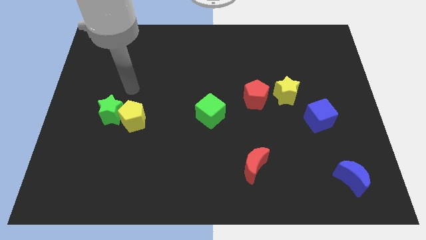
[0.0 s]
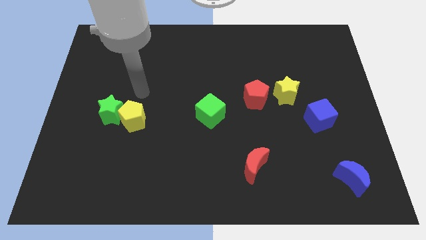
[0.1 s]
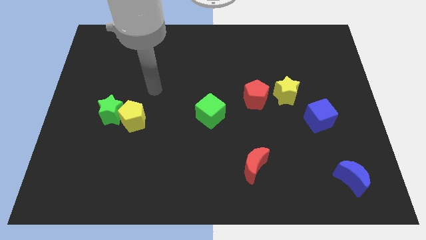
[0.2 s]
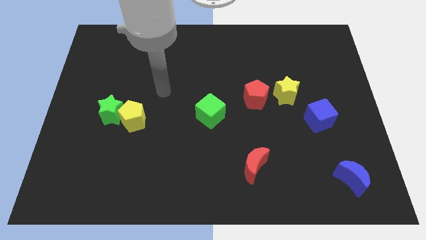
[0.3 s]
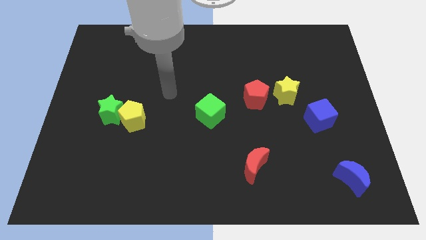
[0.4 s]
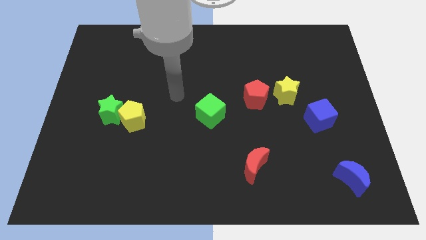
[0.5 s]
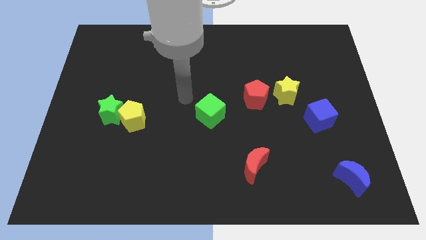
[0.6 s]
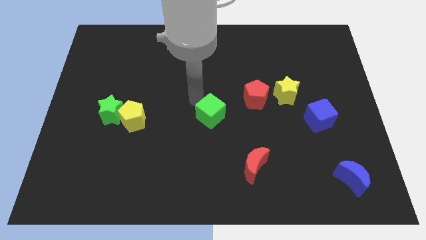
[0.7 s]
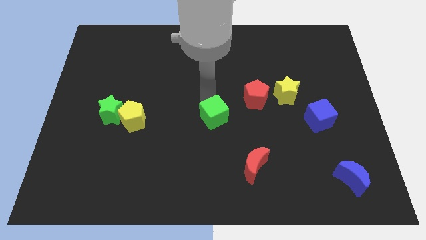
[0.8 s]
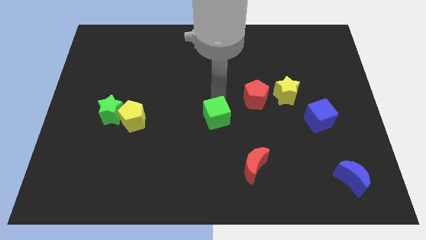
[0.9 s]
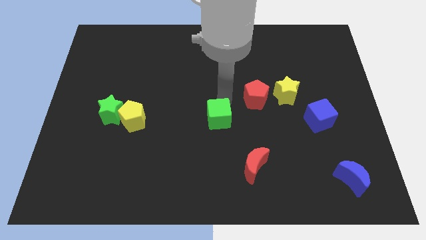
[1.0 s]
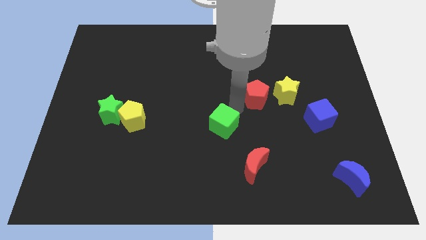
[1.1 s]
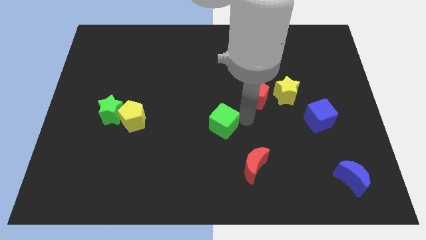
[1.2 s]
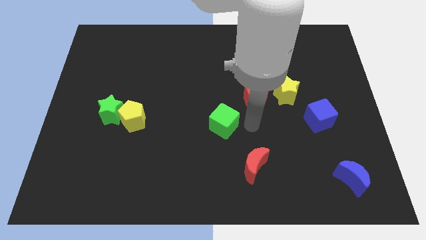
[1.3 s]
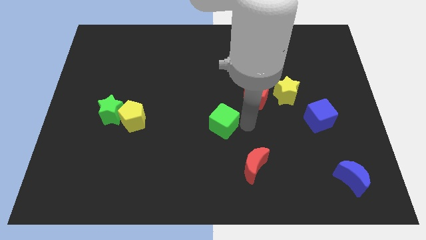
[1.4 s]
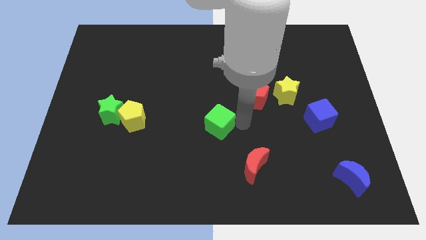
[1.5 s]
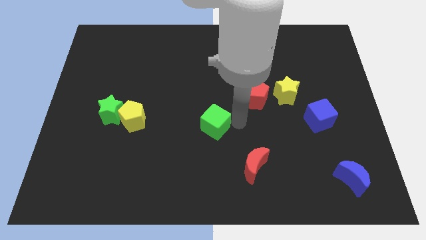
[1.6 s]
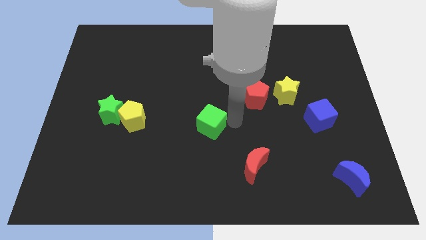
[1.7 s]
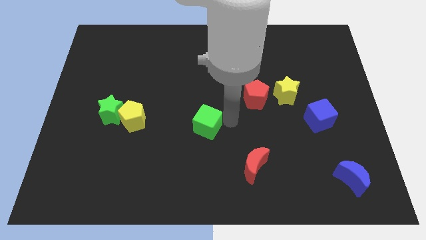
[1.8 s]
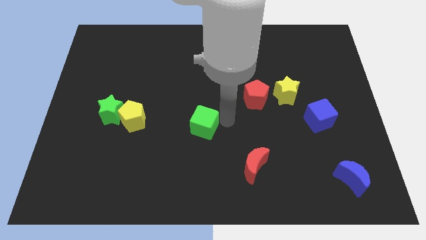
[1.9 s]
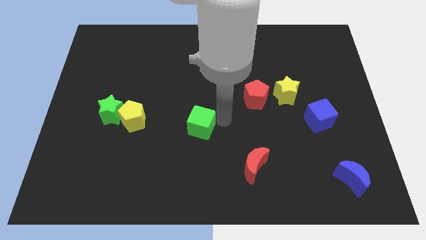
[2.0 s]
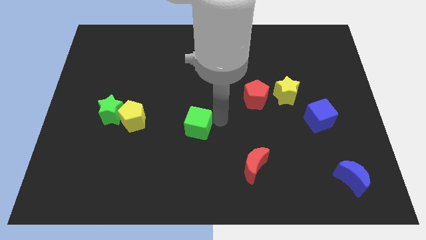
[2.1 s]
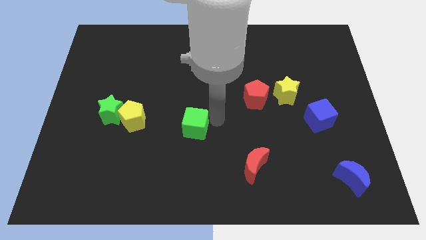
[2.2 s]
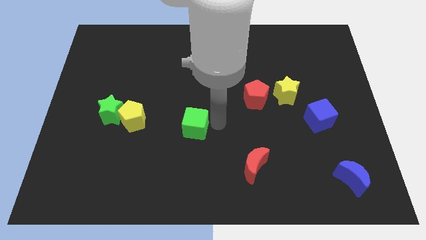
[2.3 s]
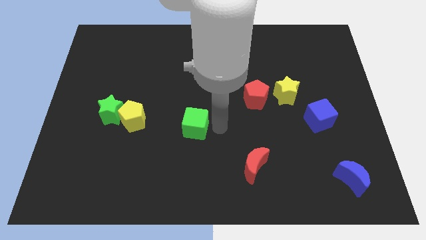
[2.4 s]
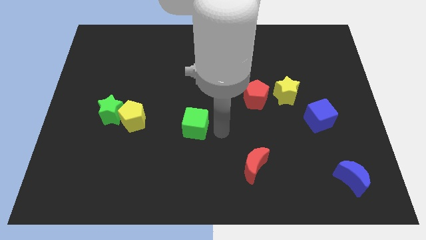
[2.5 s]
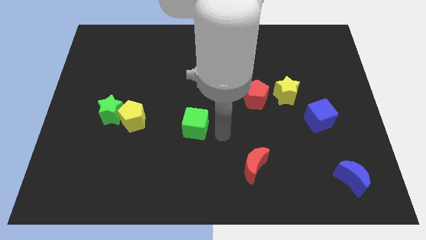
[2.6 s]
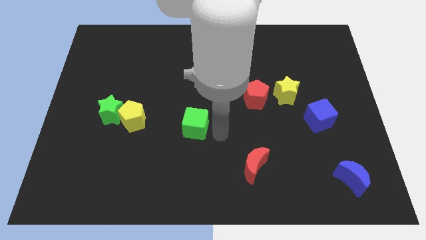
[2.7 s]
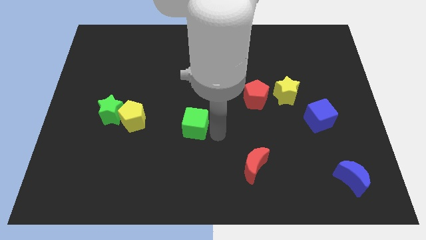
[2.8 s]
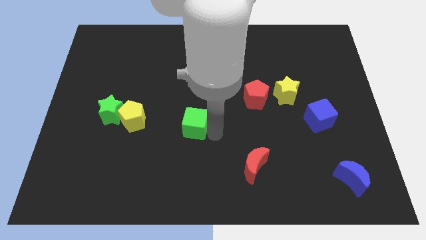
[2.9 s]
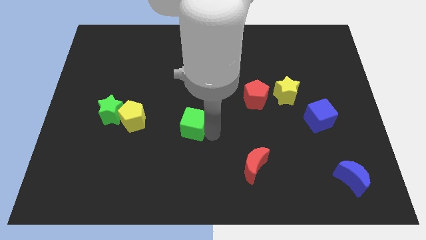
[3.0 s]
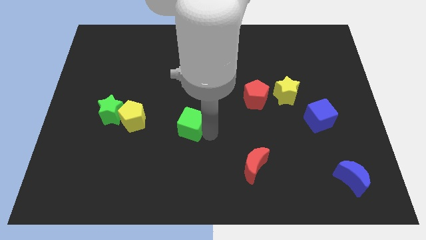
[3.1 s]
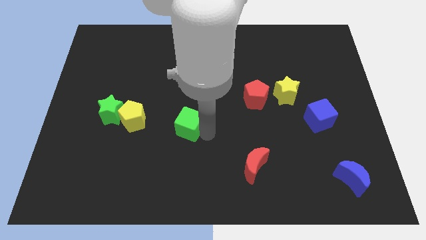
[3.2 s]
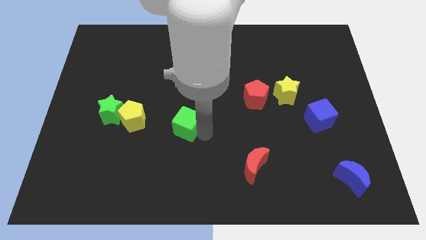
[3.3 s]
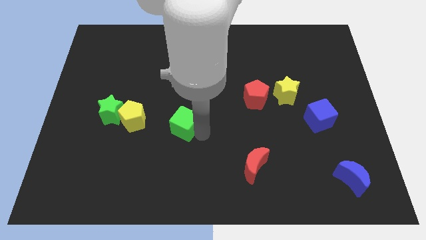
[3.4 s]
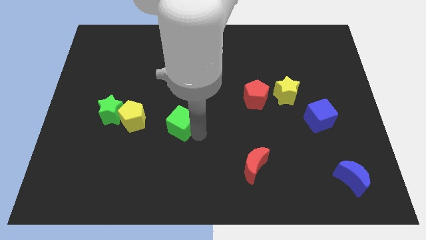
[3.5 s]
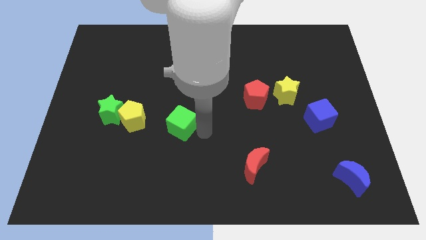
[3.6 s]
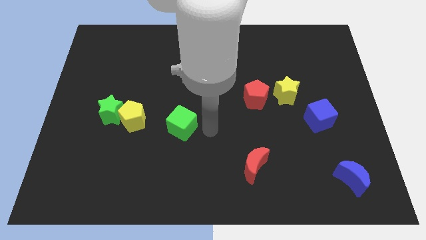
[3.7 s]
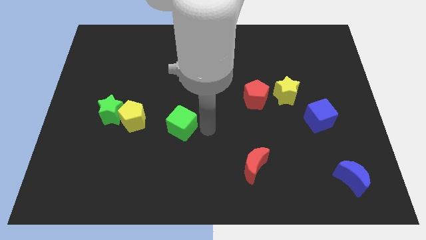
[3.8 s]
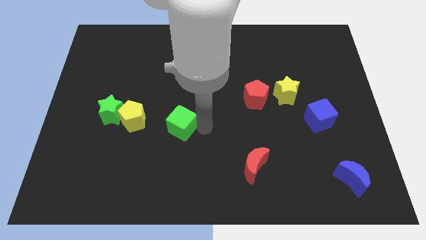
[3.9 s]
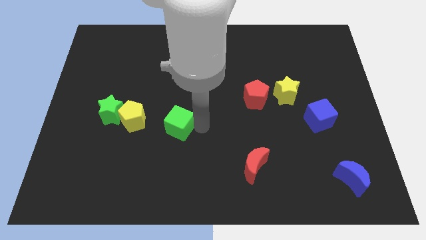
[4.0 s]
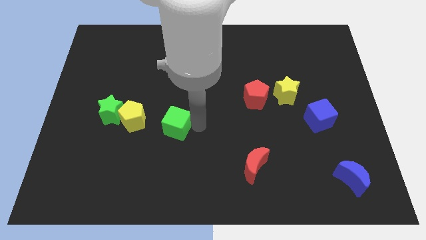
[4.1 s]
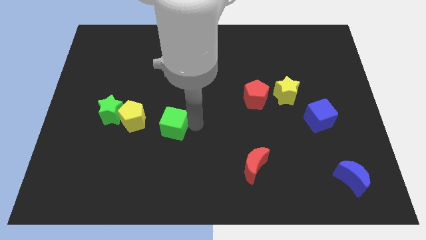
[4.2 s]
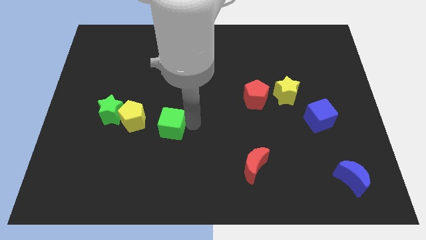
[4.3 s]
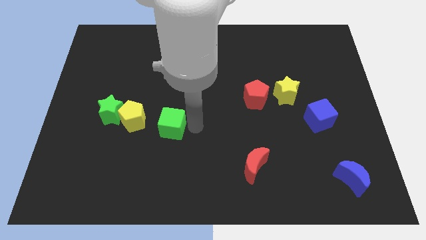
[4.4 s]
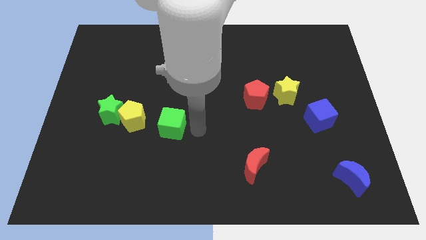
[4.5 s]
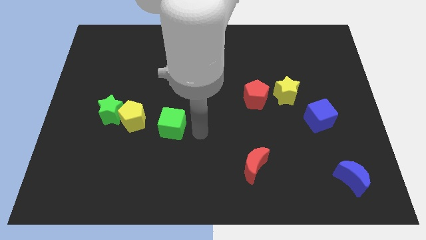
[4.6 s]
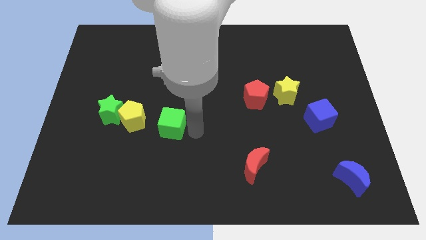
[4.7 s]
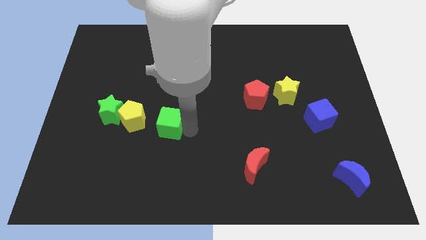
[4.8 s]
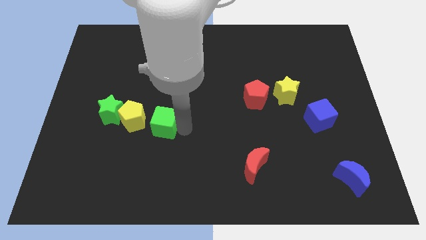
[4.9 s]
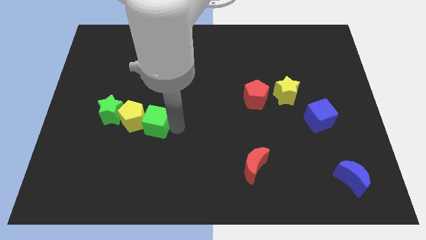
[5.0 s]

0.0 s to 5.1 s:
push the green cube to the yellow pentagon

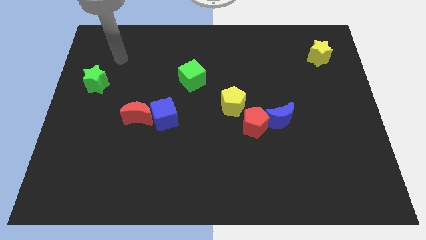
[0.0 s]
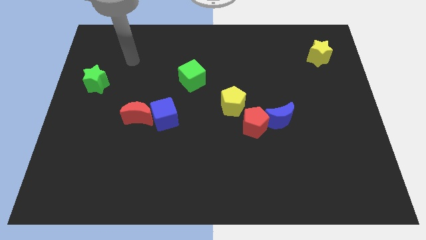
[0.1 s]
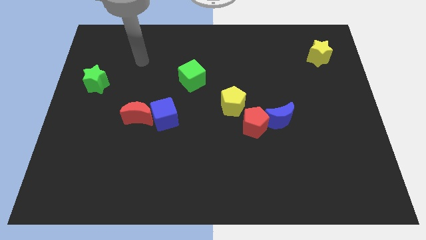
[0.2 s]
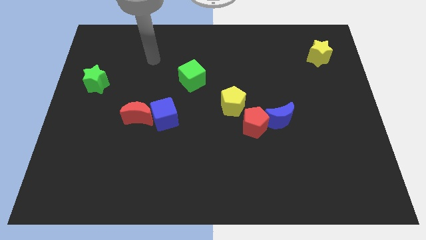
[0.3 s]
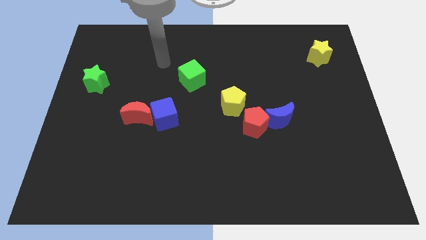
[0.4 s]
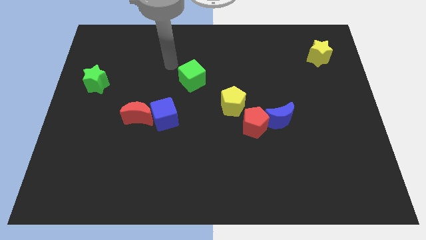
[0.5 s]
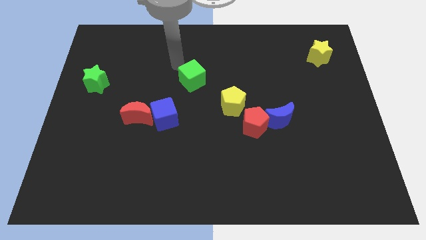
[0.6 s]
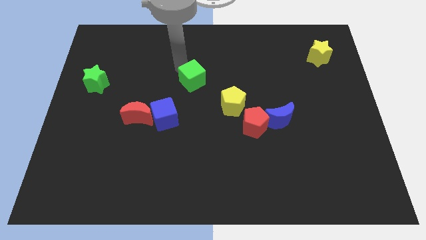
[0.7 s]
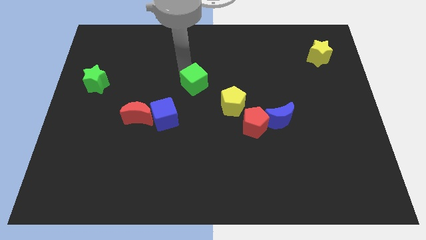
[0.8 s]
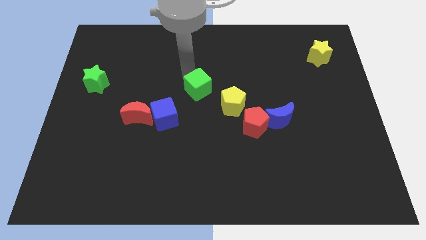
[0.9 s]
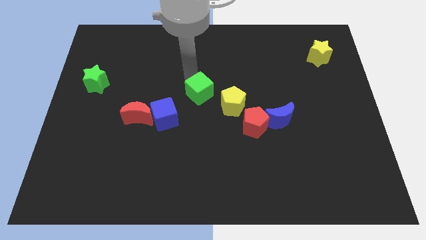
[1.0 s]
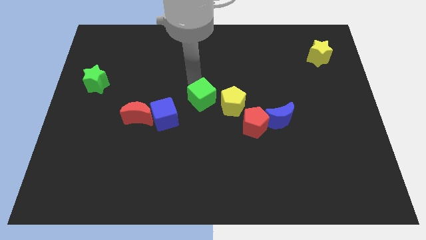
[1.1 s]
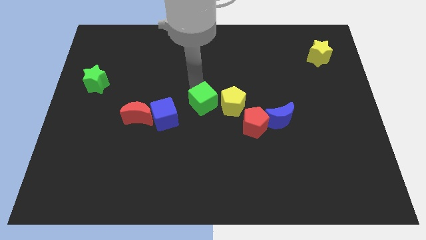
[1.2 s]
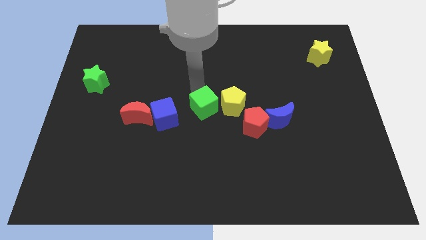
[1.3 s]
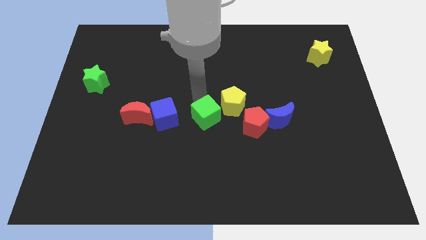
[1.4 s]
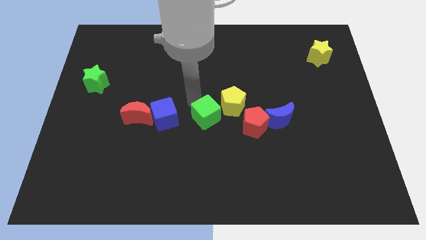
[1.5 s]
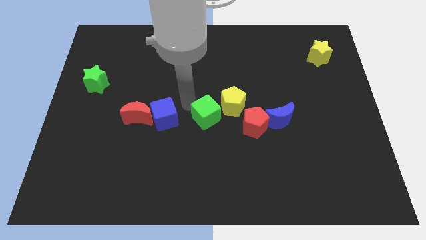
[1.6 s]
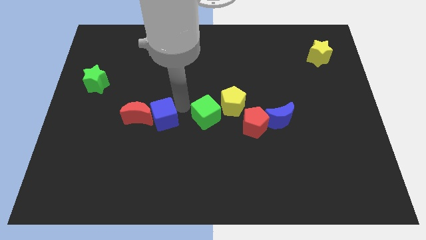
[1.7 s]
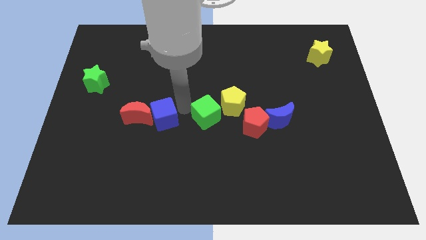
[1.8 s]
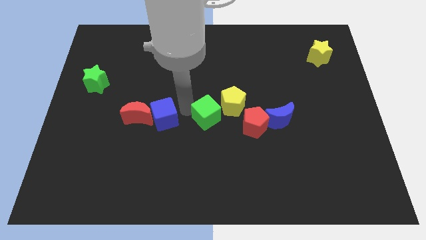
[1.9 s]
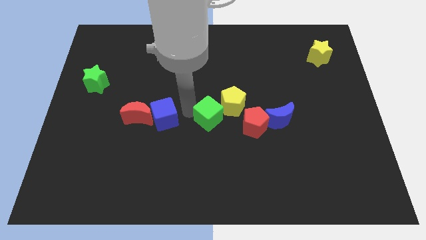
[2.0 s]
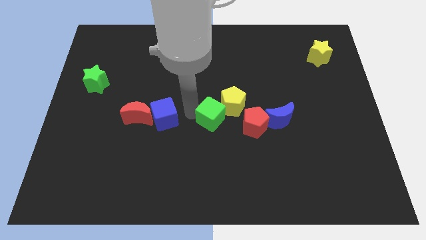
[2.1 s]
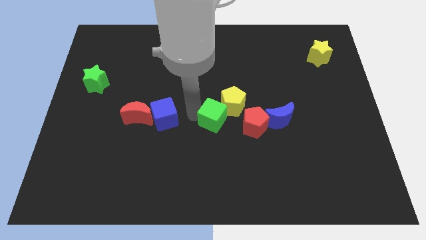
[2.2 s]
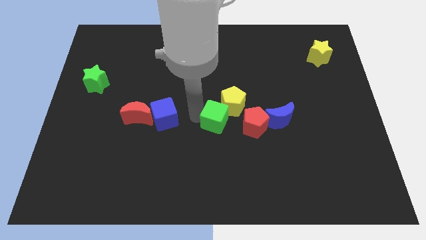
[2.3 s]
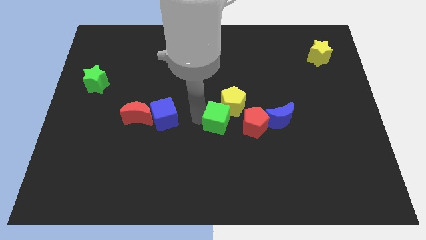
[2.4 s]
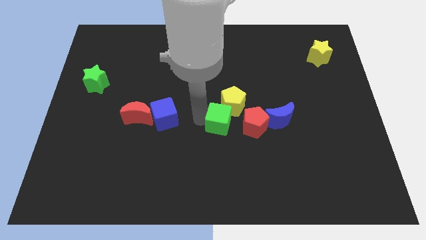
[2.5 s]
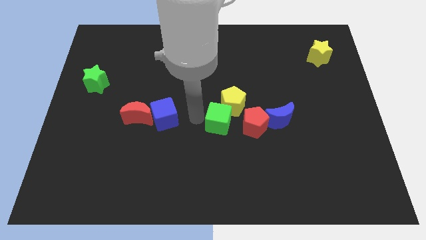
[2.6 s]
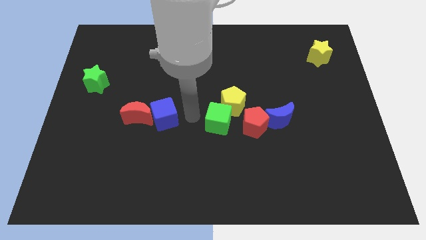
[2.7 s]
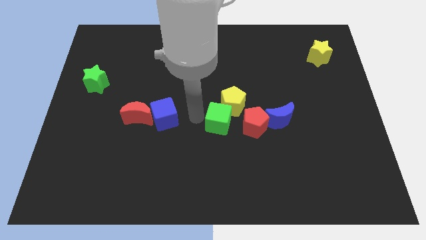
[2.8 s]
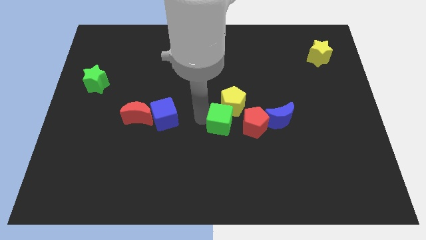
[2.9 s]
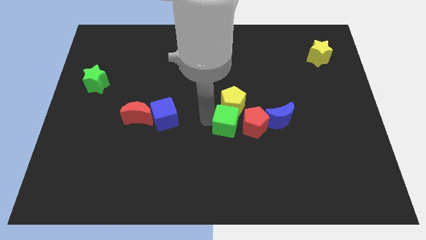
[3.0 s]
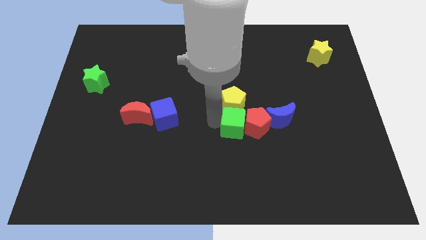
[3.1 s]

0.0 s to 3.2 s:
put the green cube close to the red pentagon

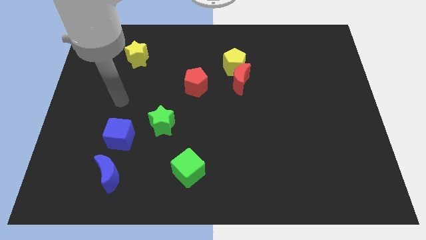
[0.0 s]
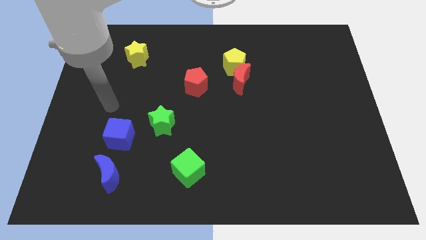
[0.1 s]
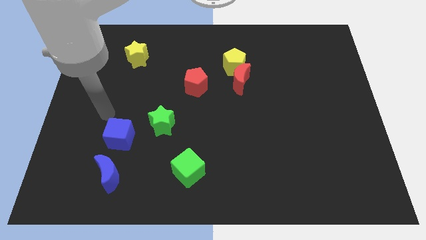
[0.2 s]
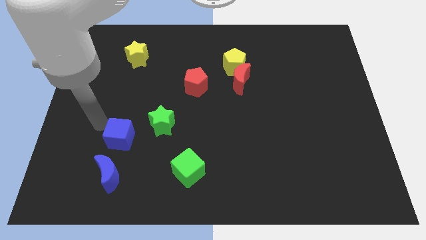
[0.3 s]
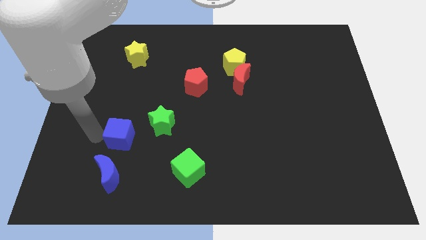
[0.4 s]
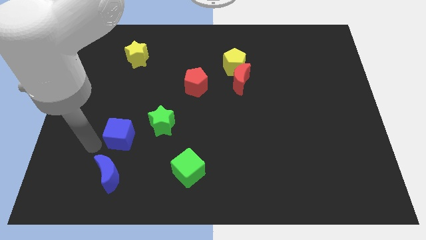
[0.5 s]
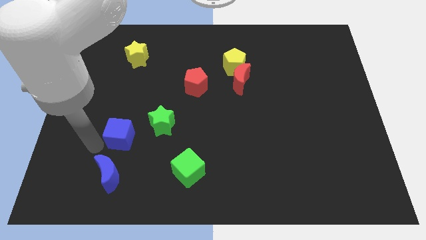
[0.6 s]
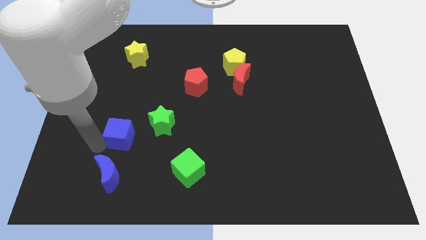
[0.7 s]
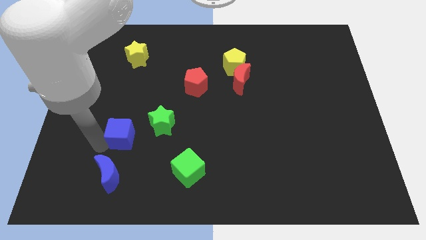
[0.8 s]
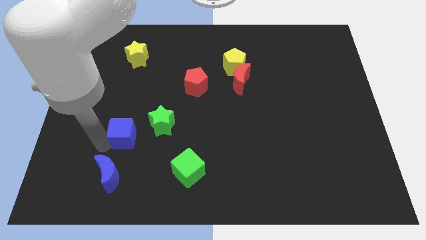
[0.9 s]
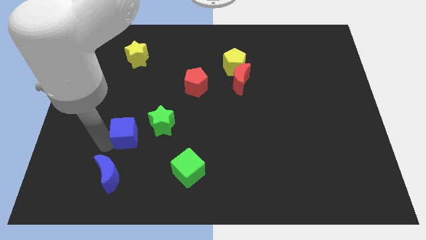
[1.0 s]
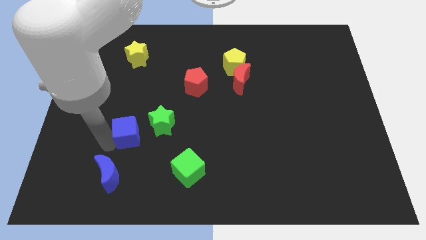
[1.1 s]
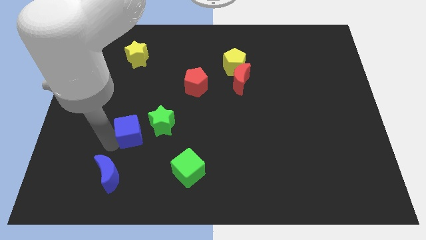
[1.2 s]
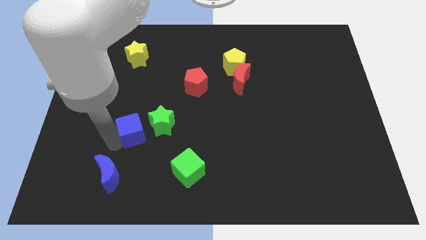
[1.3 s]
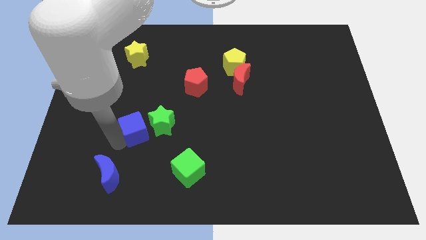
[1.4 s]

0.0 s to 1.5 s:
slide the blue cube close to the green star
